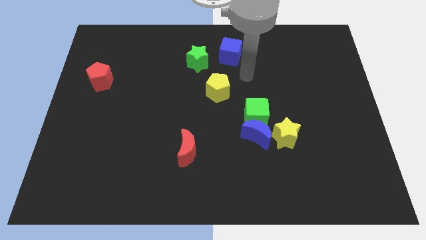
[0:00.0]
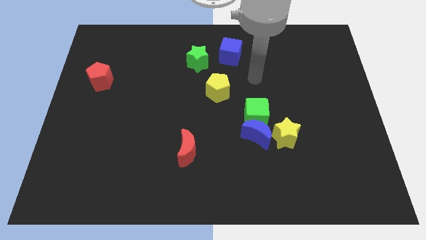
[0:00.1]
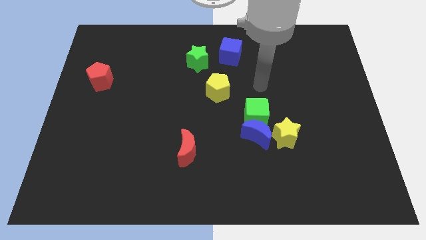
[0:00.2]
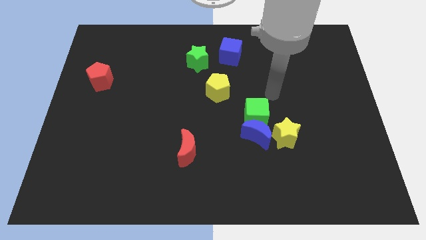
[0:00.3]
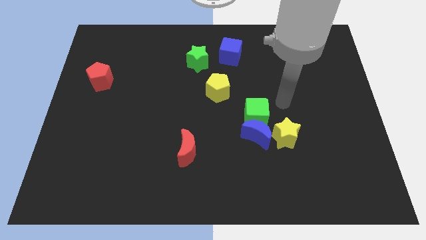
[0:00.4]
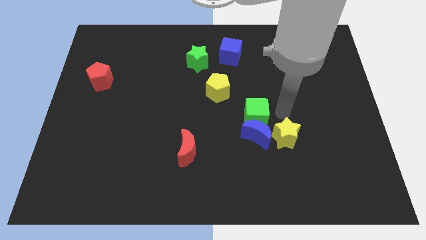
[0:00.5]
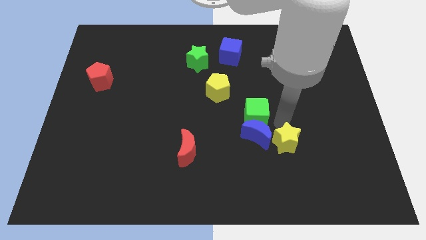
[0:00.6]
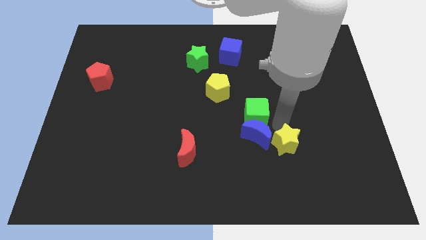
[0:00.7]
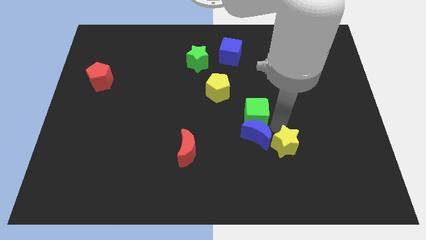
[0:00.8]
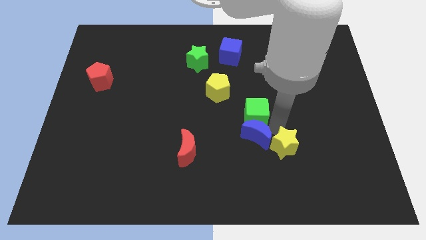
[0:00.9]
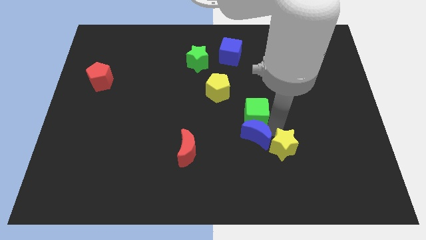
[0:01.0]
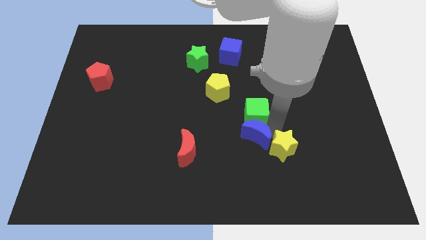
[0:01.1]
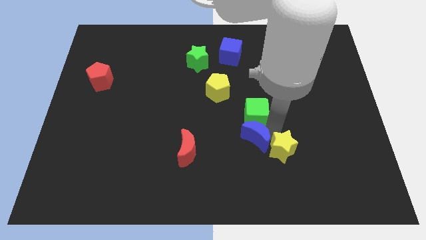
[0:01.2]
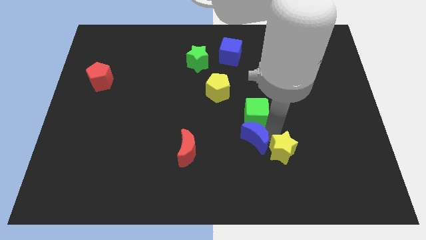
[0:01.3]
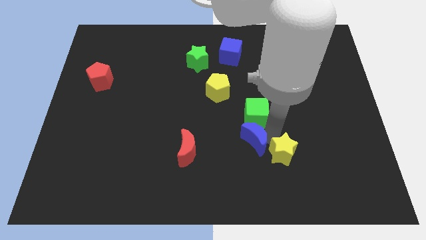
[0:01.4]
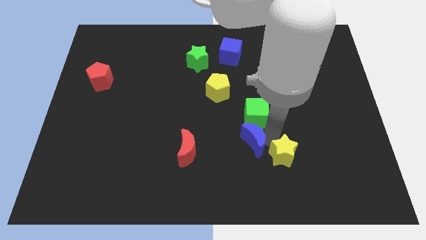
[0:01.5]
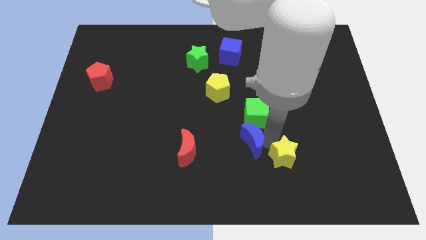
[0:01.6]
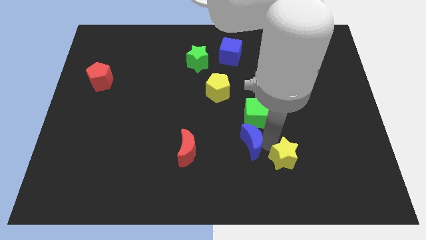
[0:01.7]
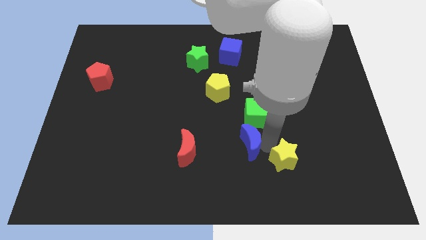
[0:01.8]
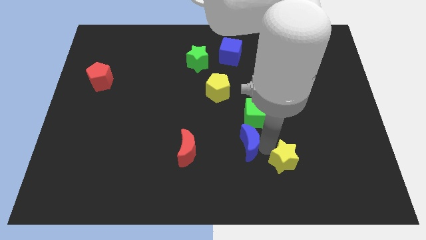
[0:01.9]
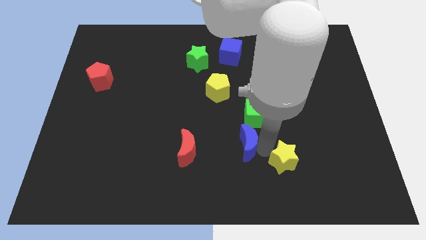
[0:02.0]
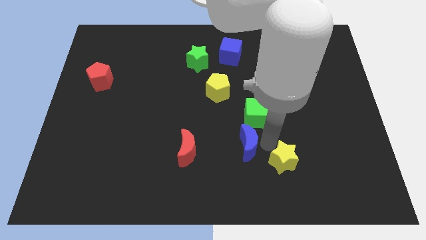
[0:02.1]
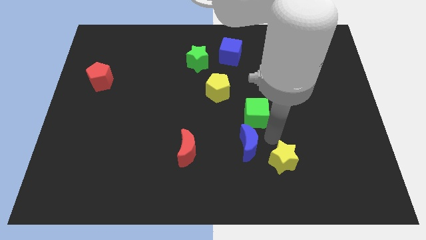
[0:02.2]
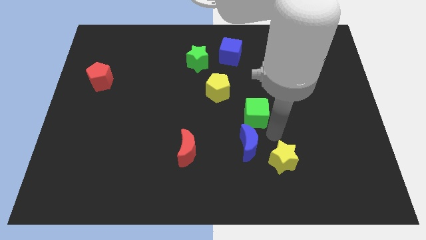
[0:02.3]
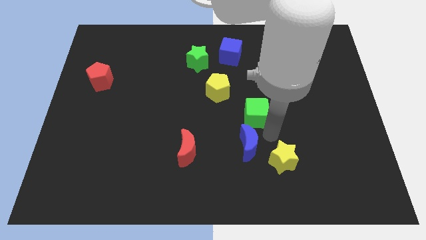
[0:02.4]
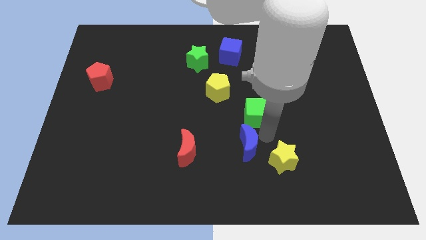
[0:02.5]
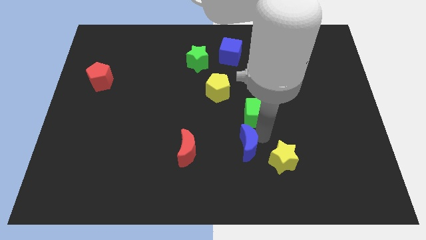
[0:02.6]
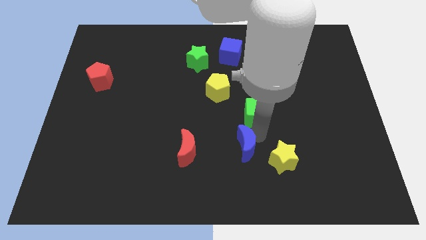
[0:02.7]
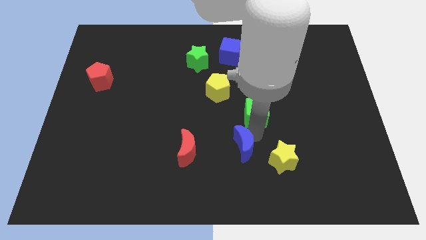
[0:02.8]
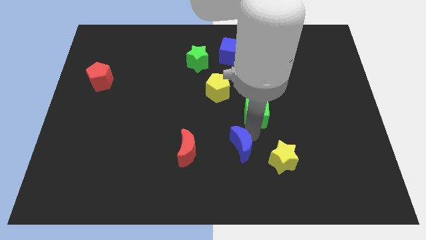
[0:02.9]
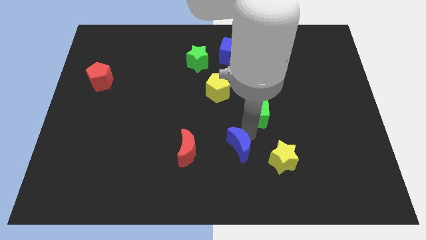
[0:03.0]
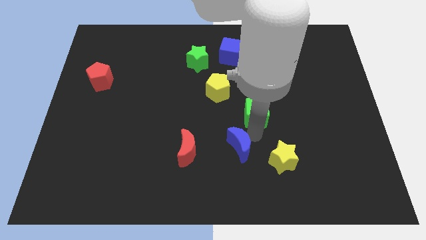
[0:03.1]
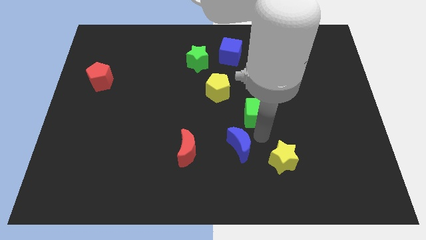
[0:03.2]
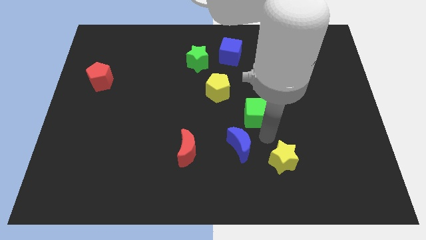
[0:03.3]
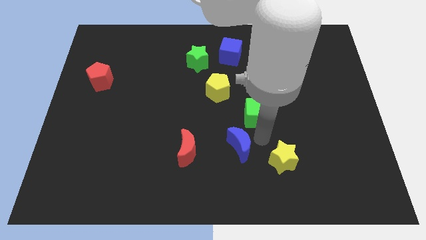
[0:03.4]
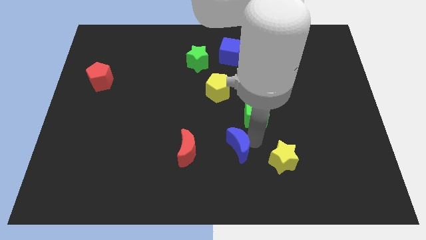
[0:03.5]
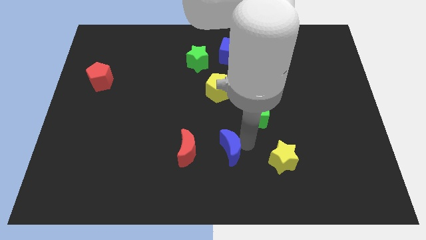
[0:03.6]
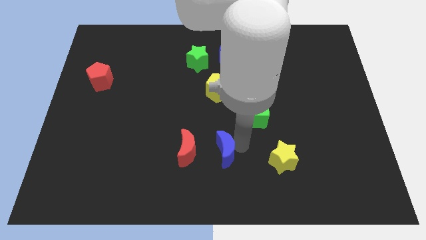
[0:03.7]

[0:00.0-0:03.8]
separate the blue moon from the green cube and yellow star

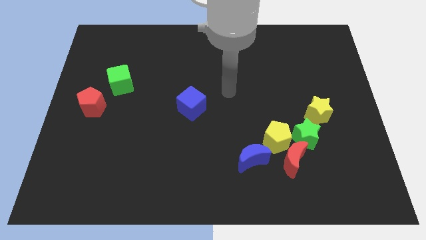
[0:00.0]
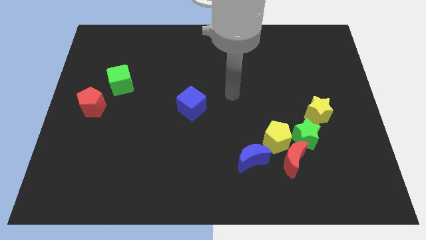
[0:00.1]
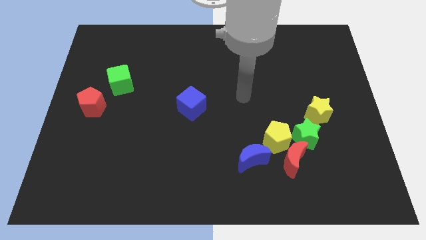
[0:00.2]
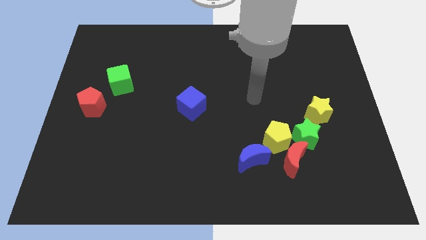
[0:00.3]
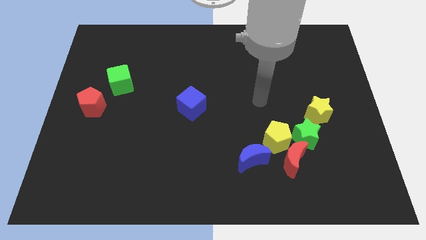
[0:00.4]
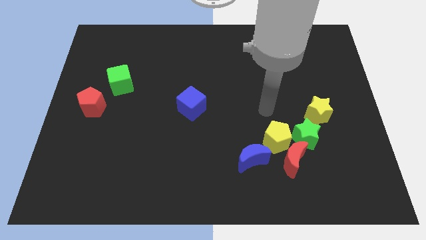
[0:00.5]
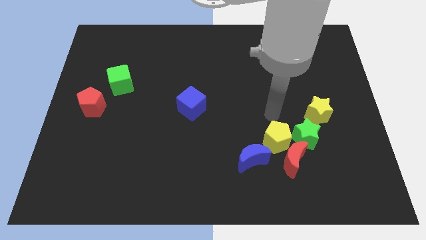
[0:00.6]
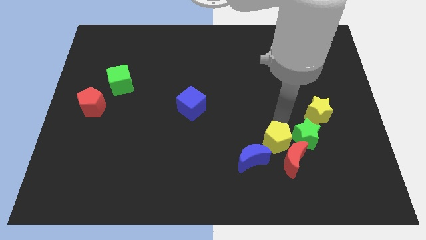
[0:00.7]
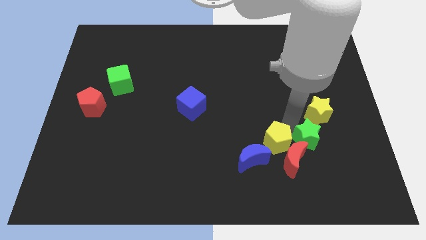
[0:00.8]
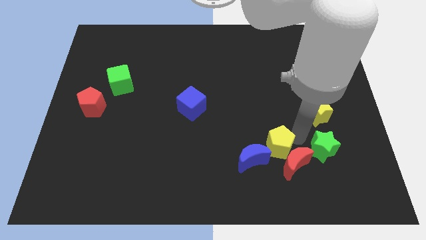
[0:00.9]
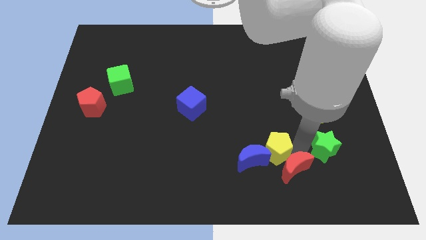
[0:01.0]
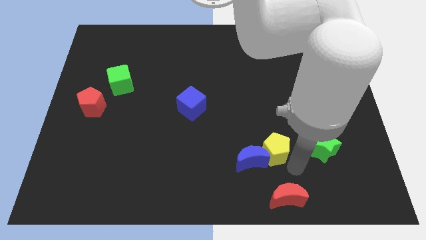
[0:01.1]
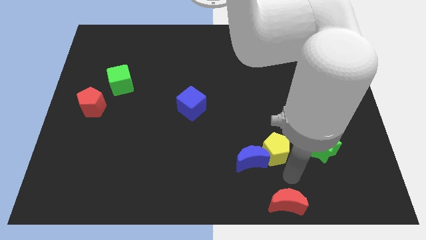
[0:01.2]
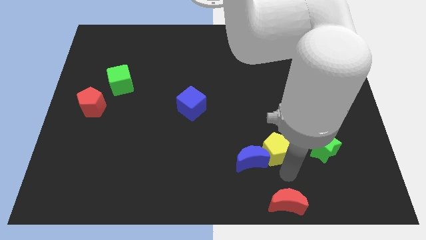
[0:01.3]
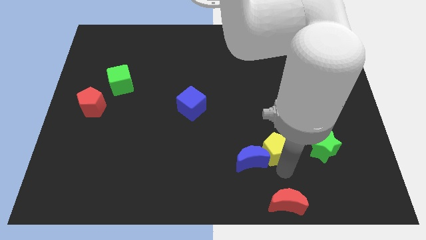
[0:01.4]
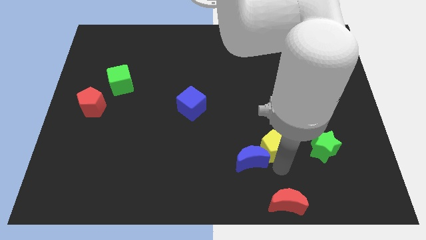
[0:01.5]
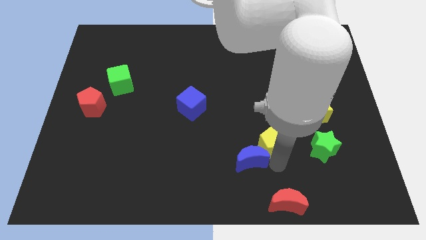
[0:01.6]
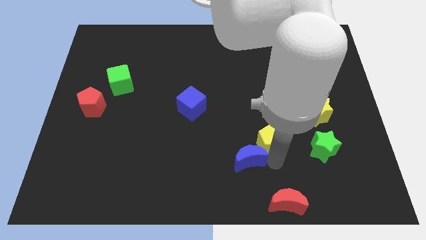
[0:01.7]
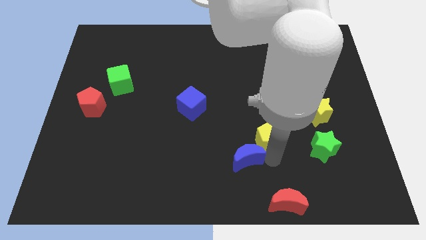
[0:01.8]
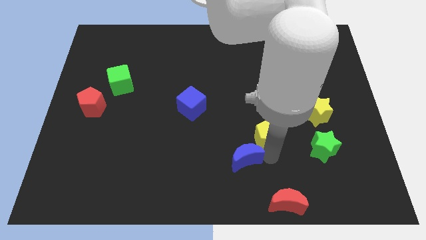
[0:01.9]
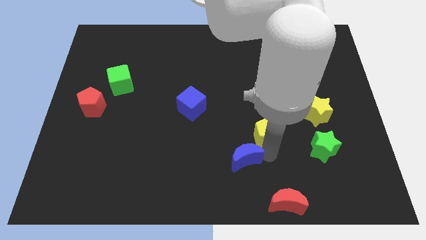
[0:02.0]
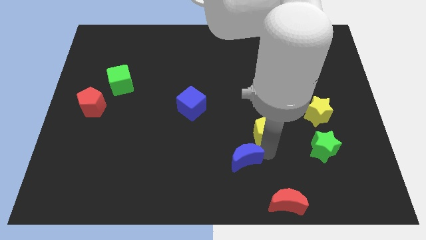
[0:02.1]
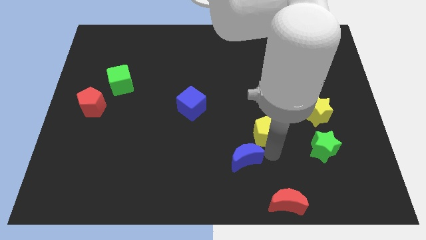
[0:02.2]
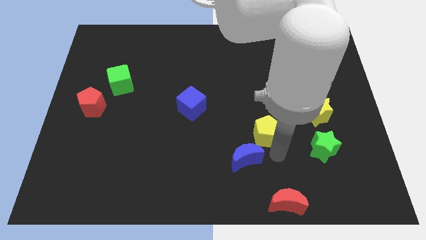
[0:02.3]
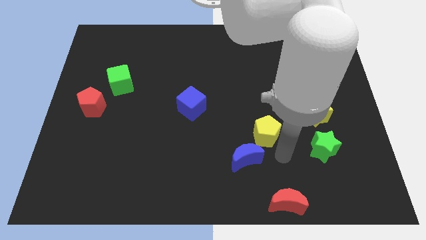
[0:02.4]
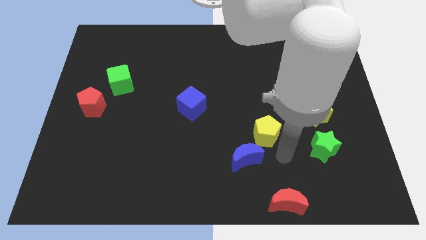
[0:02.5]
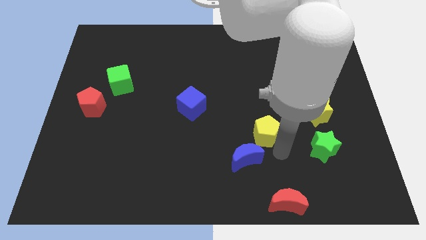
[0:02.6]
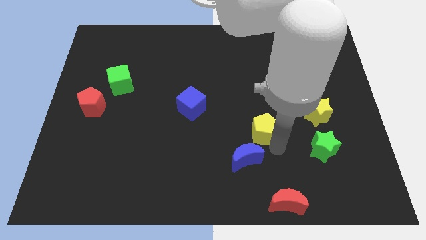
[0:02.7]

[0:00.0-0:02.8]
pull the yellow pentagon apart from the group of blocks

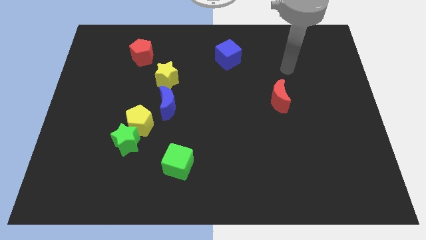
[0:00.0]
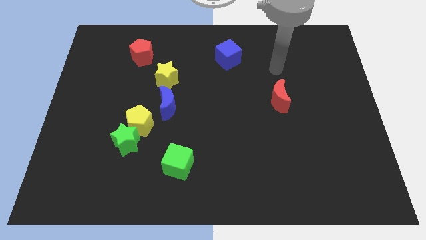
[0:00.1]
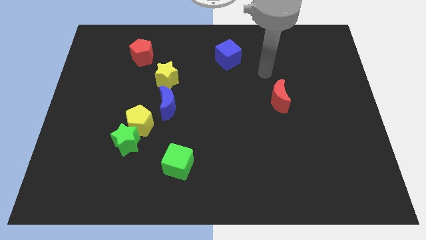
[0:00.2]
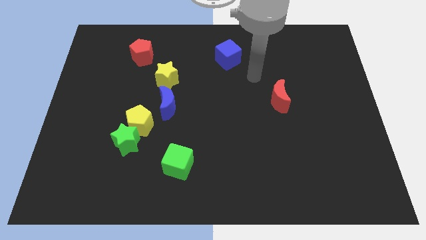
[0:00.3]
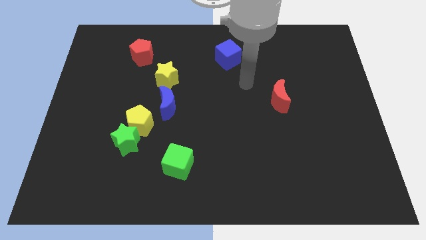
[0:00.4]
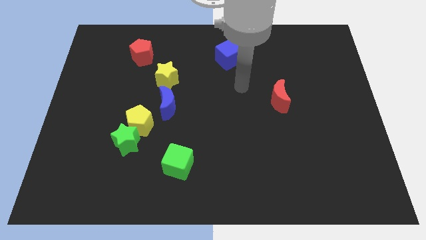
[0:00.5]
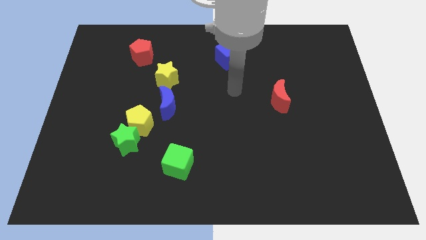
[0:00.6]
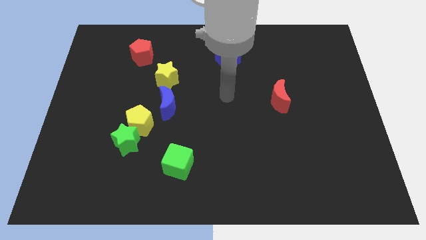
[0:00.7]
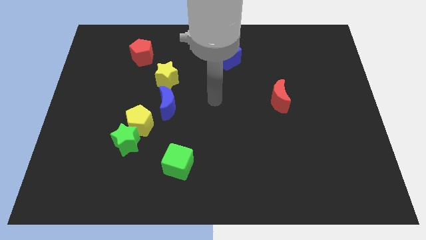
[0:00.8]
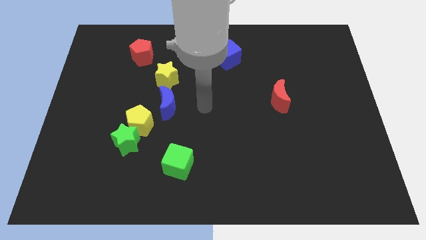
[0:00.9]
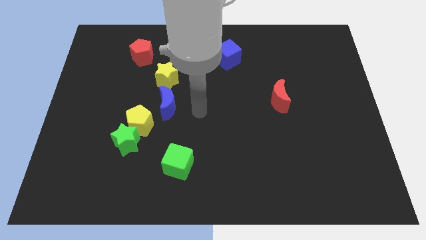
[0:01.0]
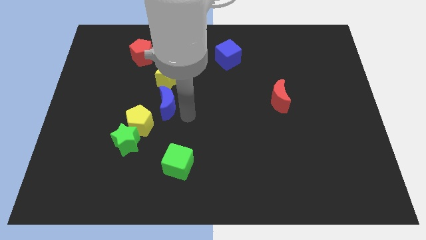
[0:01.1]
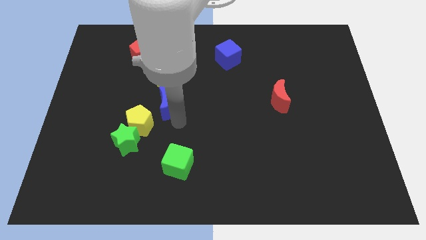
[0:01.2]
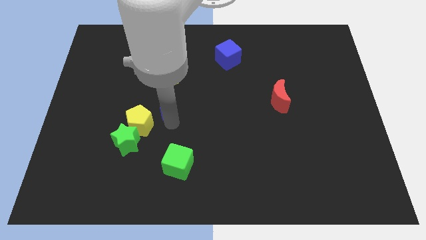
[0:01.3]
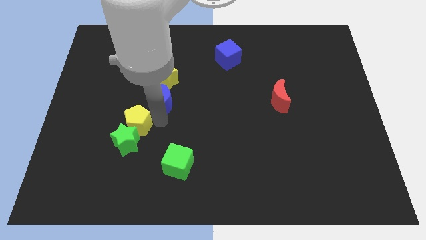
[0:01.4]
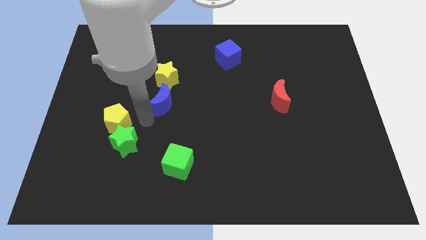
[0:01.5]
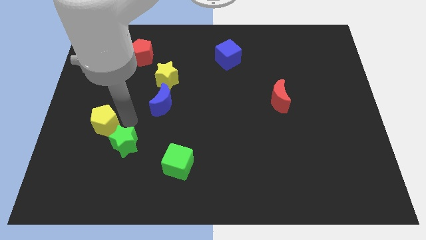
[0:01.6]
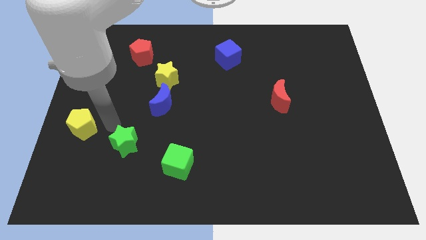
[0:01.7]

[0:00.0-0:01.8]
move the green star away from the yellow pentagon

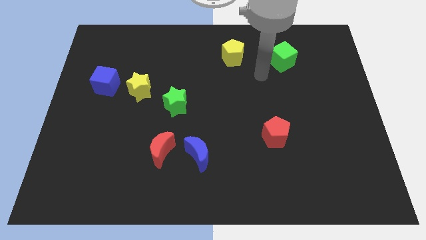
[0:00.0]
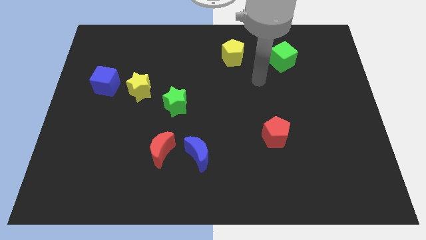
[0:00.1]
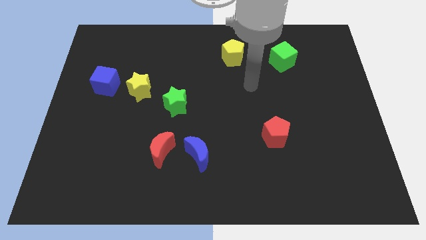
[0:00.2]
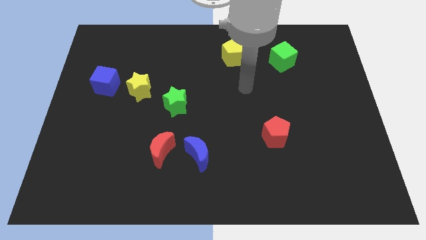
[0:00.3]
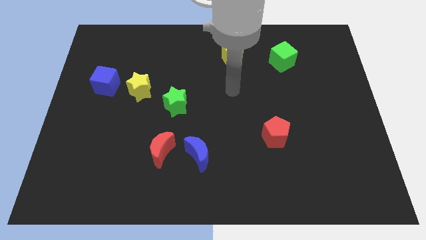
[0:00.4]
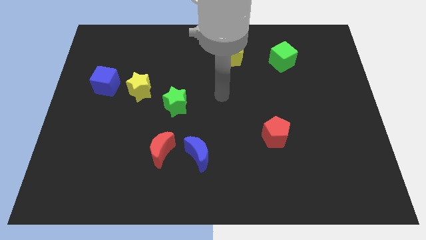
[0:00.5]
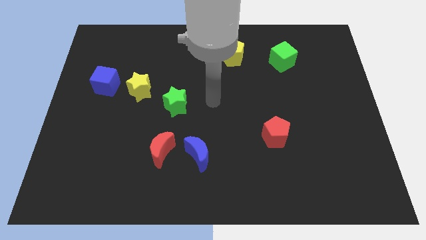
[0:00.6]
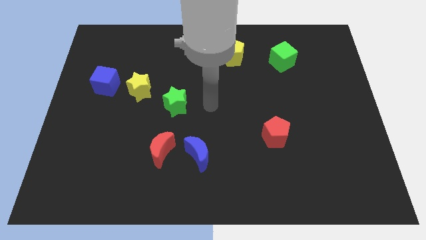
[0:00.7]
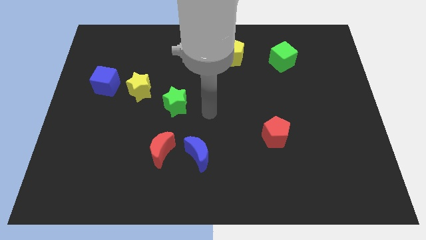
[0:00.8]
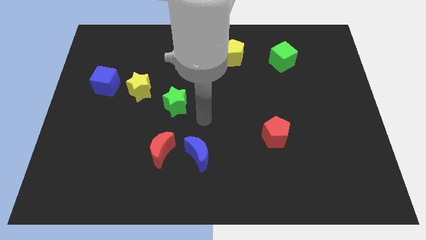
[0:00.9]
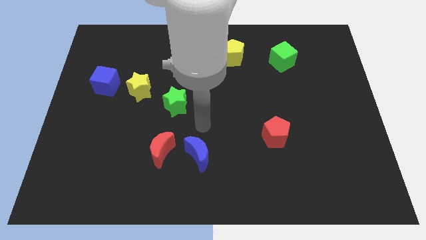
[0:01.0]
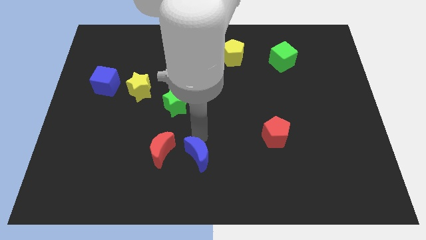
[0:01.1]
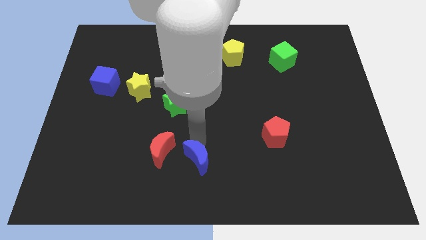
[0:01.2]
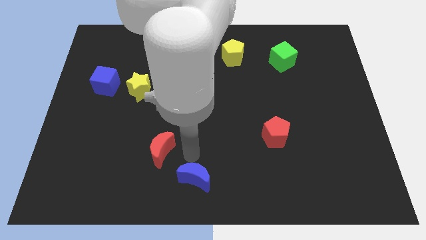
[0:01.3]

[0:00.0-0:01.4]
separate the red moon from the blue moon
